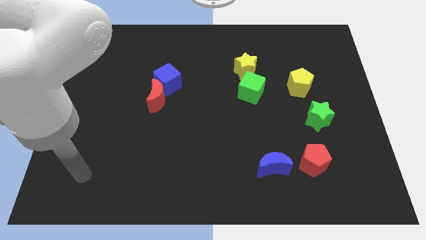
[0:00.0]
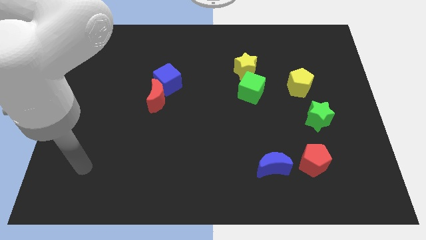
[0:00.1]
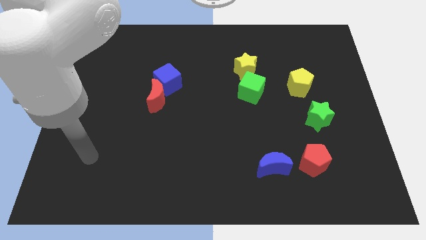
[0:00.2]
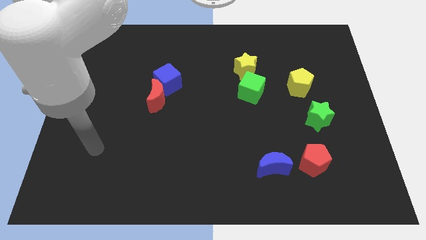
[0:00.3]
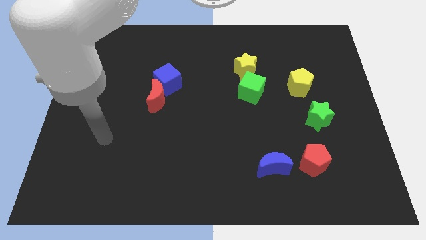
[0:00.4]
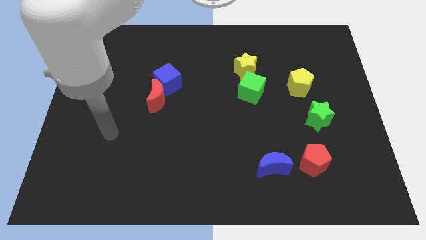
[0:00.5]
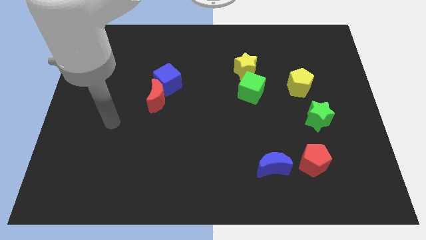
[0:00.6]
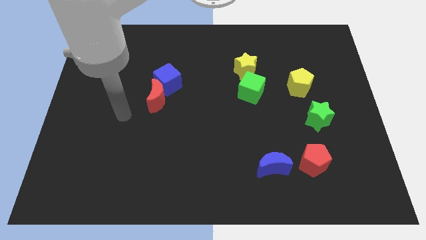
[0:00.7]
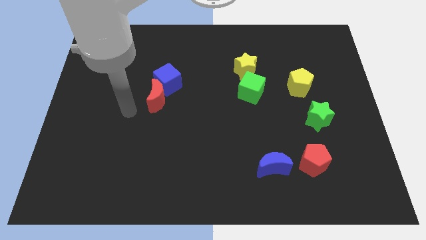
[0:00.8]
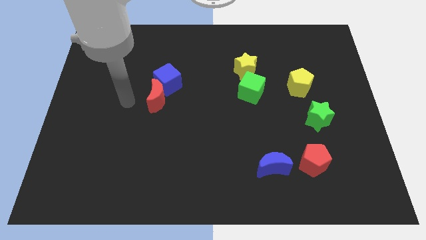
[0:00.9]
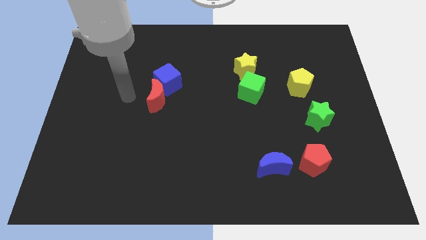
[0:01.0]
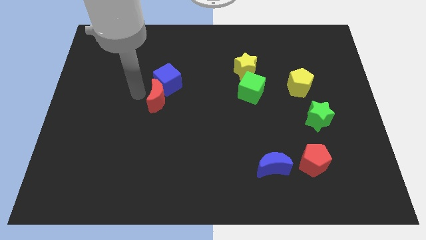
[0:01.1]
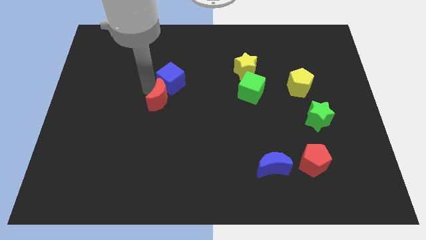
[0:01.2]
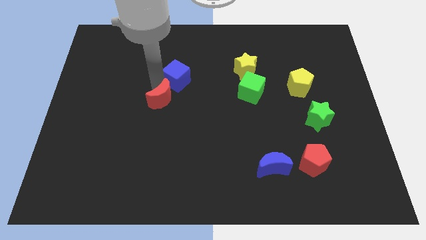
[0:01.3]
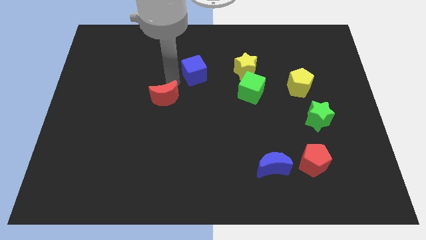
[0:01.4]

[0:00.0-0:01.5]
pull the red moon apart from the blue cube

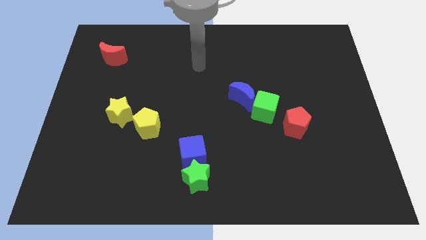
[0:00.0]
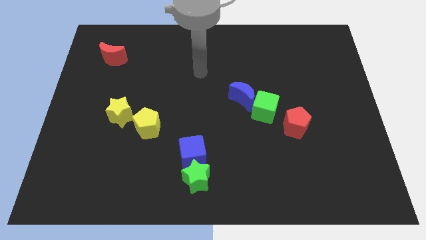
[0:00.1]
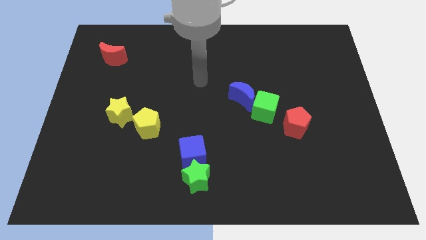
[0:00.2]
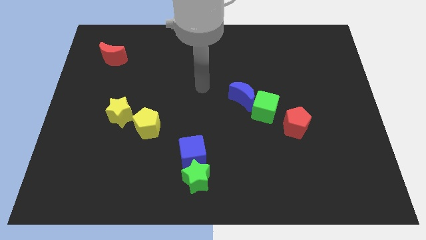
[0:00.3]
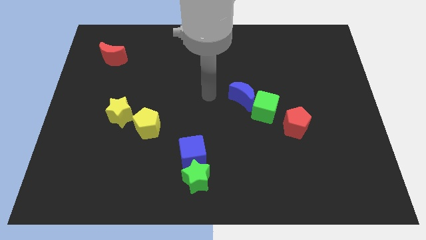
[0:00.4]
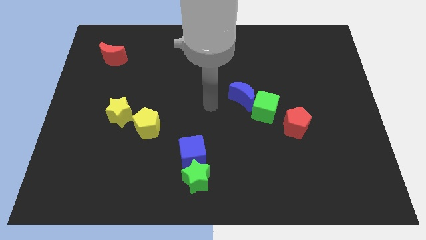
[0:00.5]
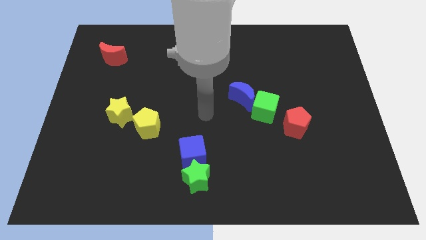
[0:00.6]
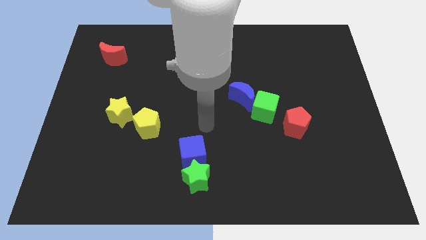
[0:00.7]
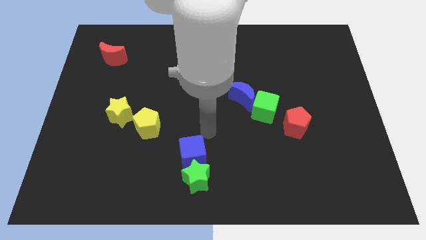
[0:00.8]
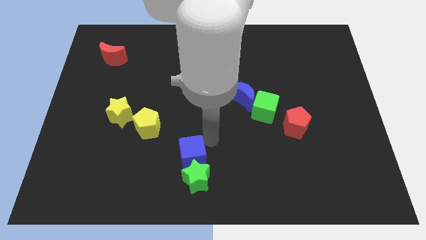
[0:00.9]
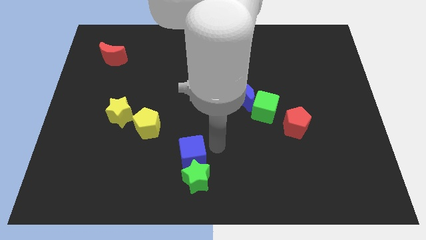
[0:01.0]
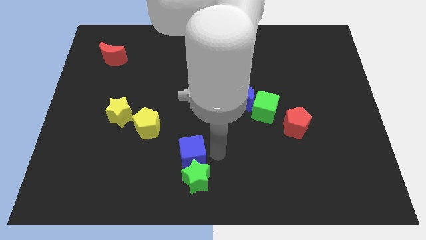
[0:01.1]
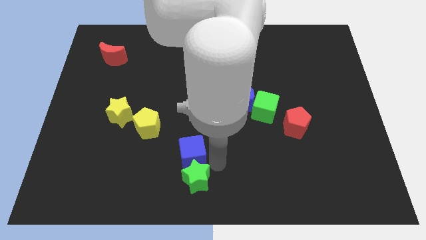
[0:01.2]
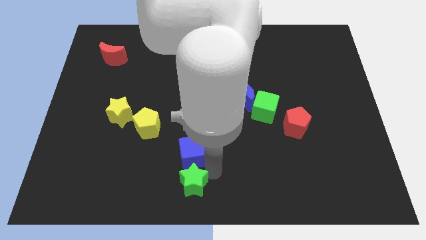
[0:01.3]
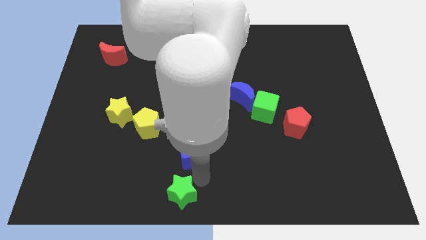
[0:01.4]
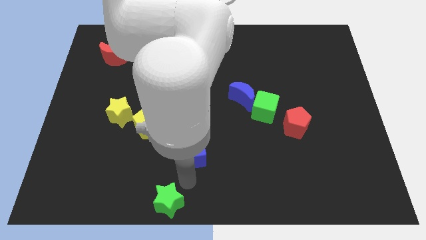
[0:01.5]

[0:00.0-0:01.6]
separate the blue cube from the green star

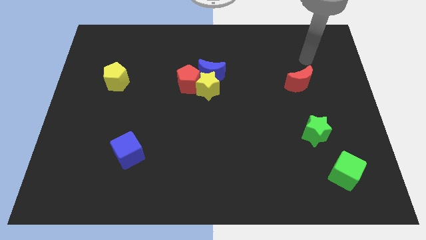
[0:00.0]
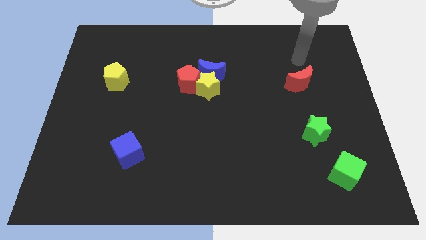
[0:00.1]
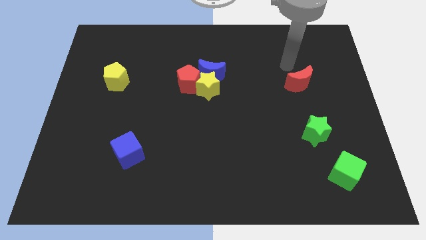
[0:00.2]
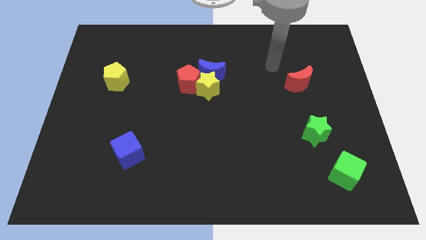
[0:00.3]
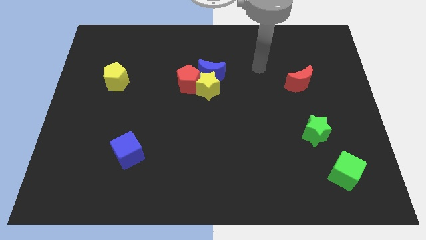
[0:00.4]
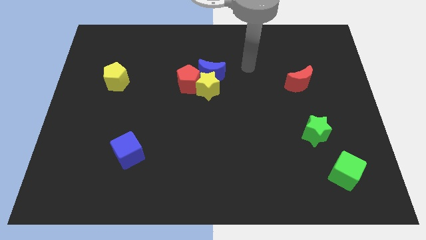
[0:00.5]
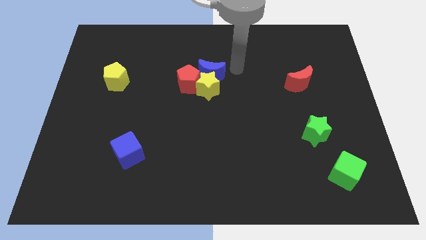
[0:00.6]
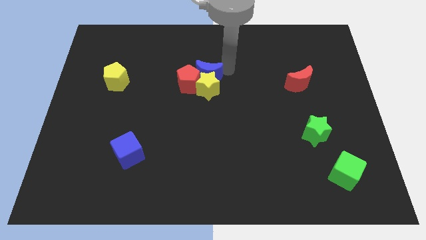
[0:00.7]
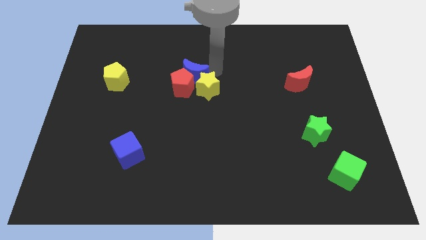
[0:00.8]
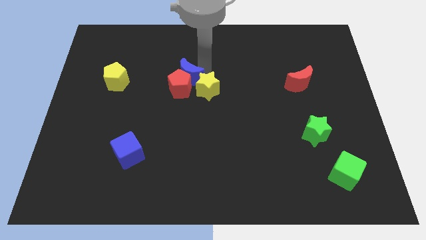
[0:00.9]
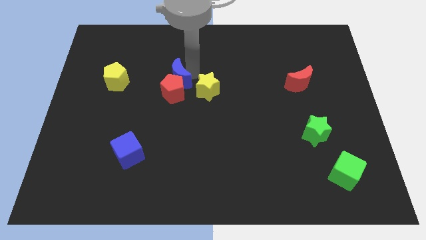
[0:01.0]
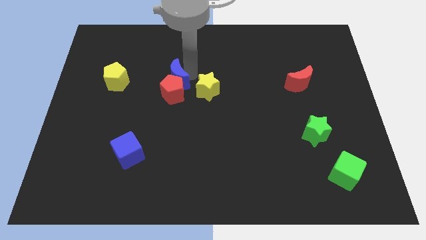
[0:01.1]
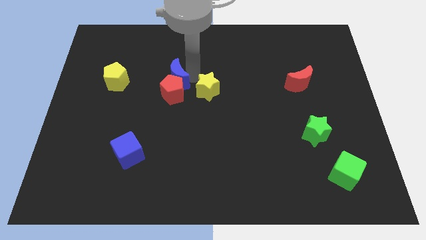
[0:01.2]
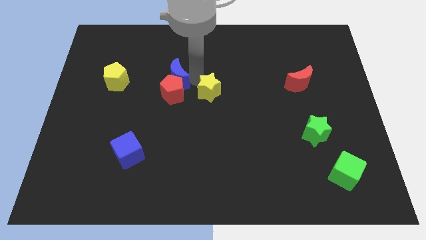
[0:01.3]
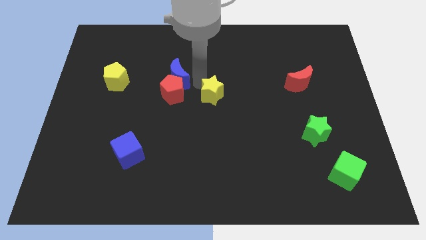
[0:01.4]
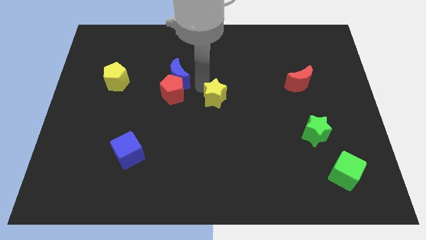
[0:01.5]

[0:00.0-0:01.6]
separate the yellow star from the blue moon and red pentagon

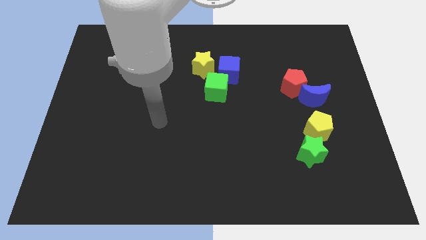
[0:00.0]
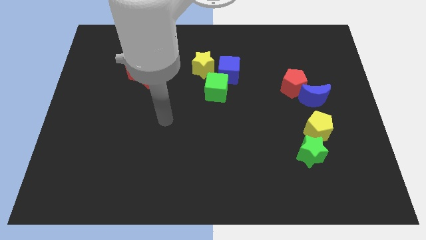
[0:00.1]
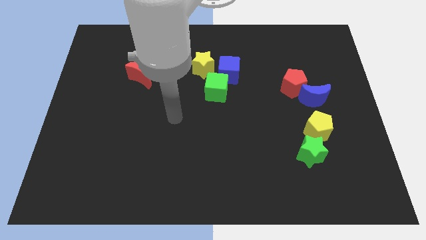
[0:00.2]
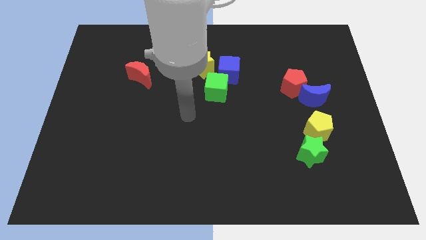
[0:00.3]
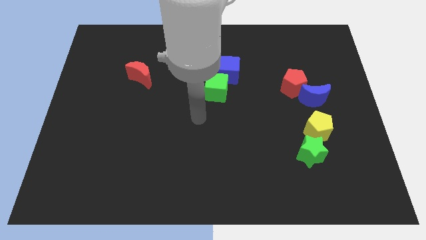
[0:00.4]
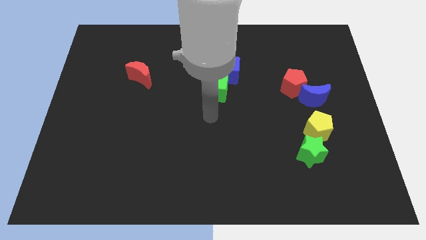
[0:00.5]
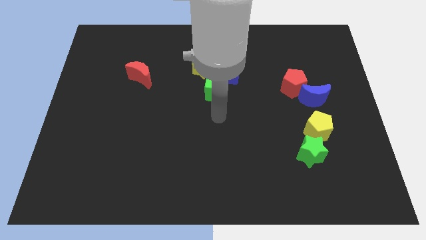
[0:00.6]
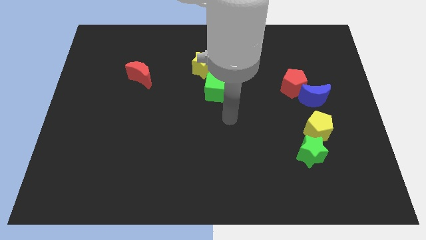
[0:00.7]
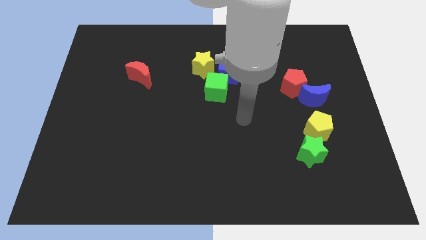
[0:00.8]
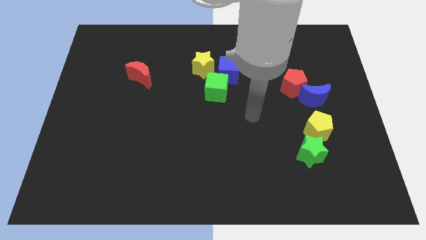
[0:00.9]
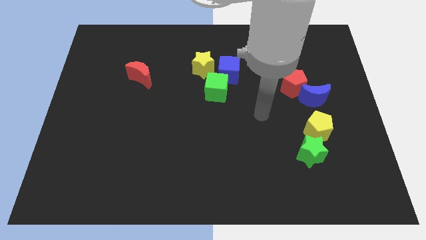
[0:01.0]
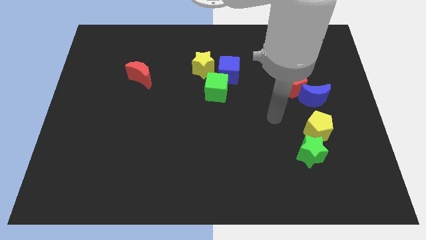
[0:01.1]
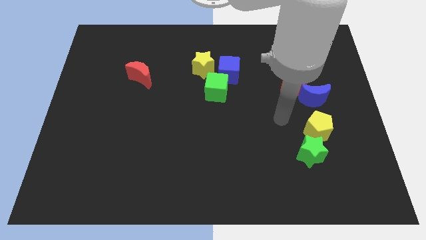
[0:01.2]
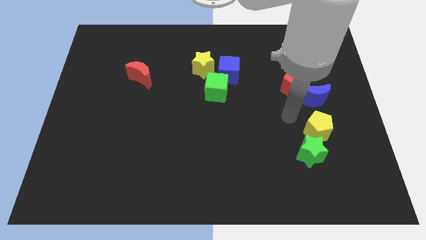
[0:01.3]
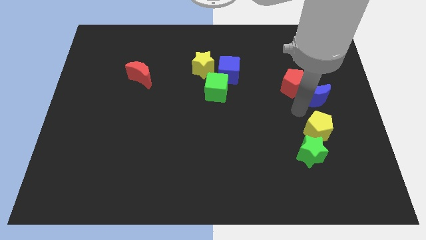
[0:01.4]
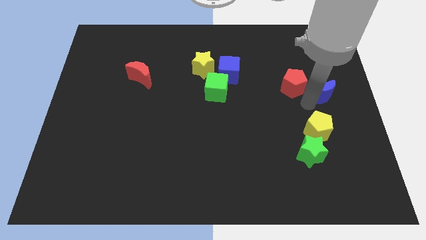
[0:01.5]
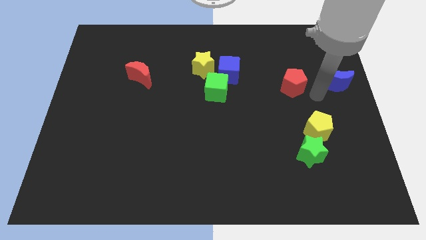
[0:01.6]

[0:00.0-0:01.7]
pull the red pentagon apart from the blue moon

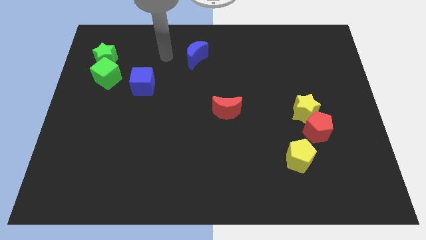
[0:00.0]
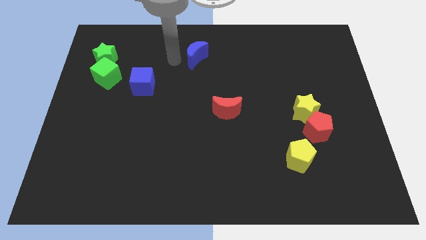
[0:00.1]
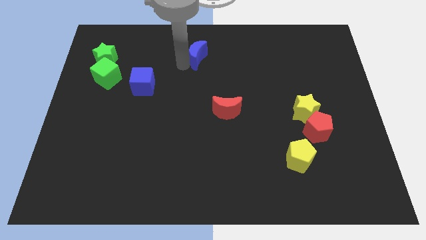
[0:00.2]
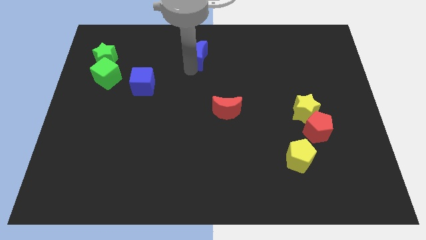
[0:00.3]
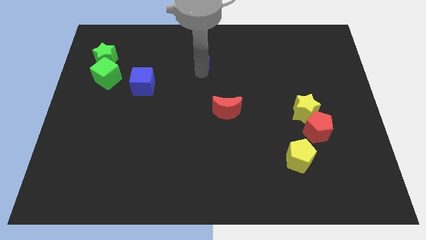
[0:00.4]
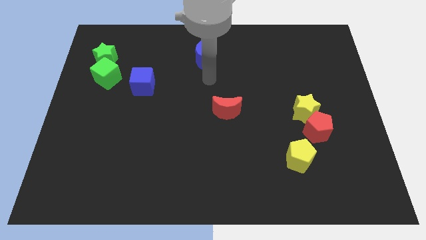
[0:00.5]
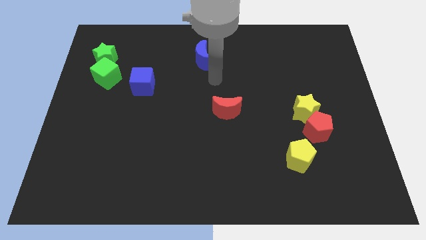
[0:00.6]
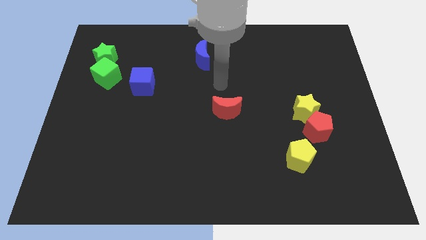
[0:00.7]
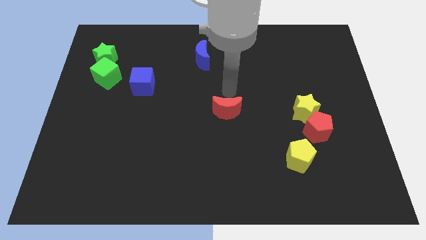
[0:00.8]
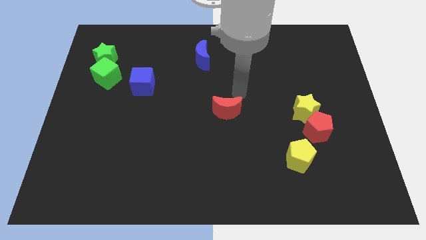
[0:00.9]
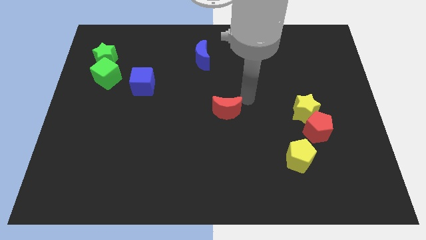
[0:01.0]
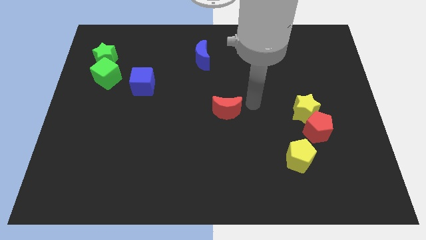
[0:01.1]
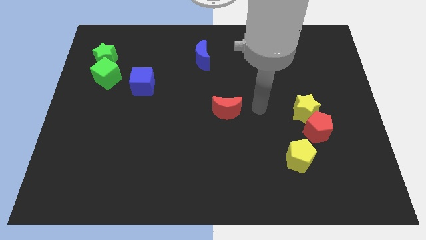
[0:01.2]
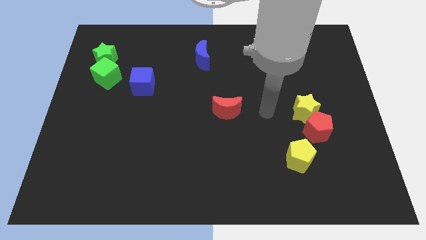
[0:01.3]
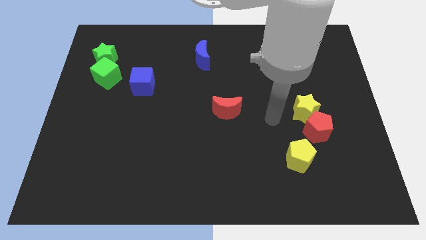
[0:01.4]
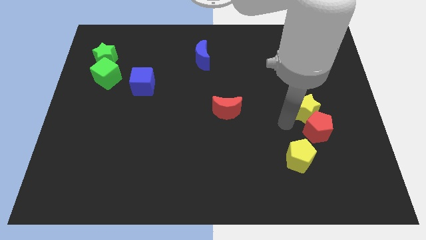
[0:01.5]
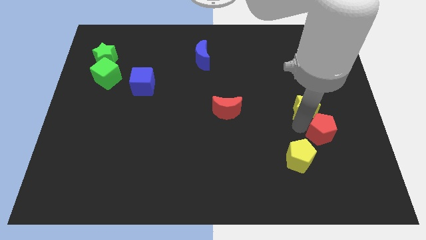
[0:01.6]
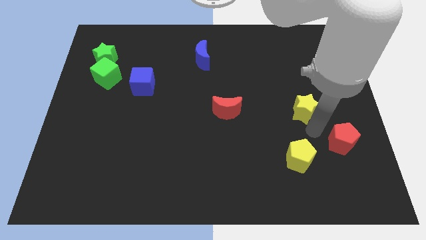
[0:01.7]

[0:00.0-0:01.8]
pull the yellow star apart from the red pentagon

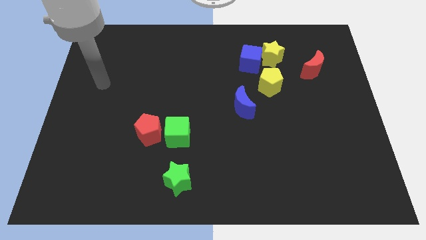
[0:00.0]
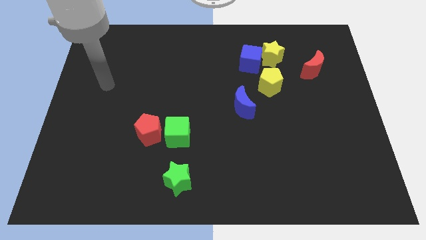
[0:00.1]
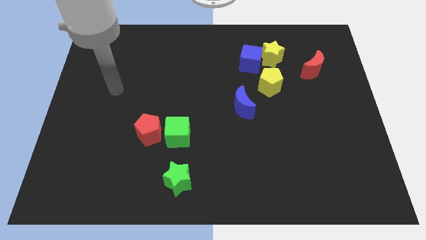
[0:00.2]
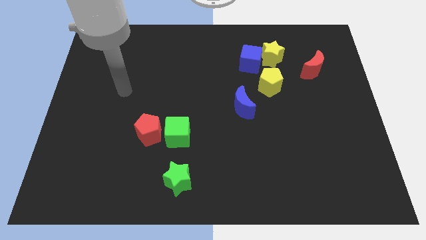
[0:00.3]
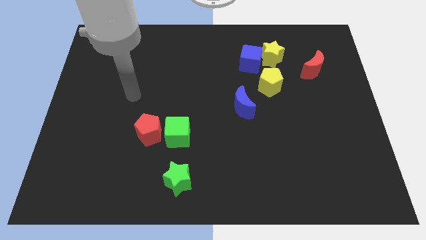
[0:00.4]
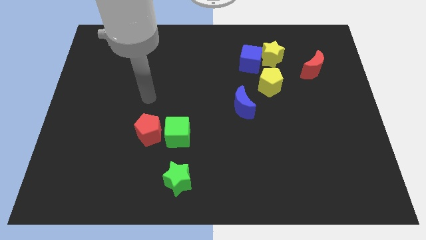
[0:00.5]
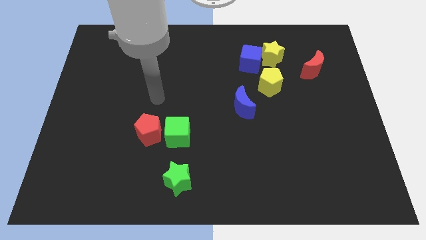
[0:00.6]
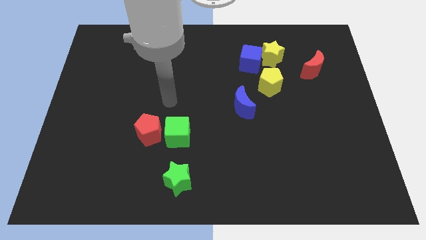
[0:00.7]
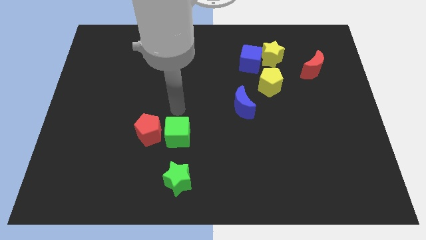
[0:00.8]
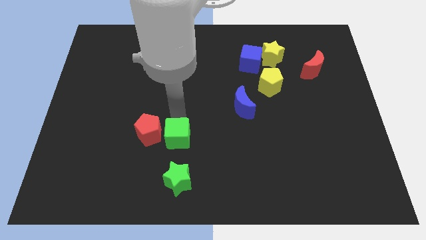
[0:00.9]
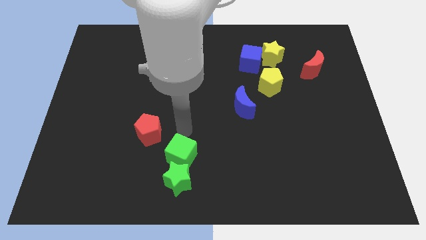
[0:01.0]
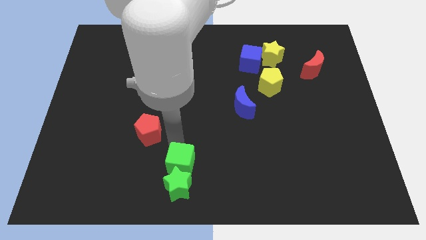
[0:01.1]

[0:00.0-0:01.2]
pull the red pentagon apart from the green cube
